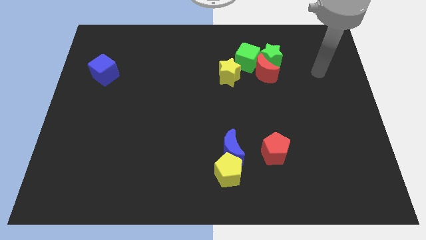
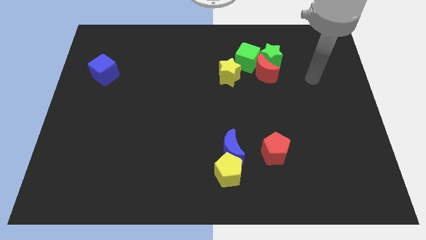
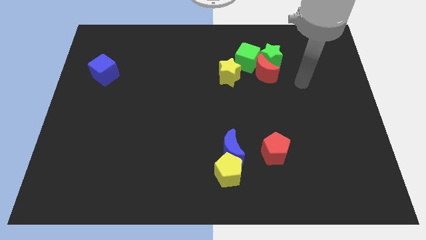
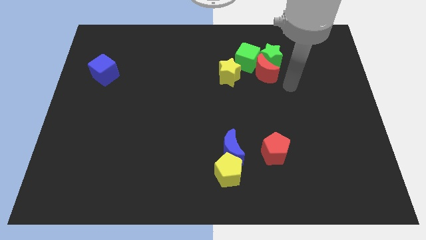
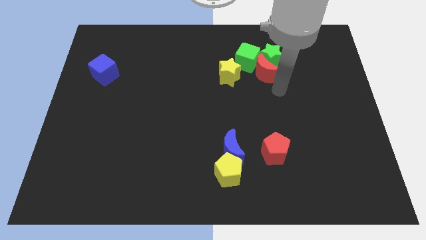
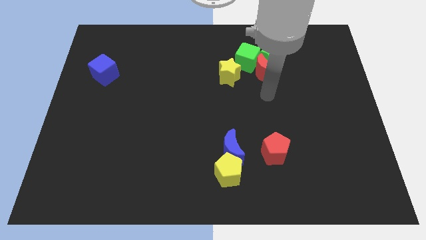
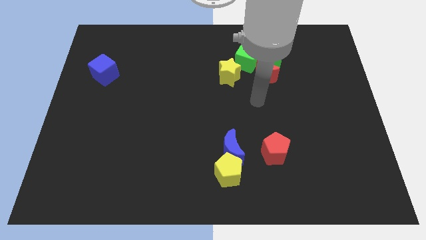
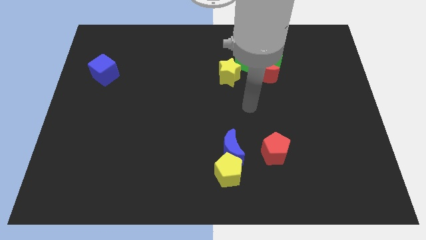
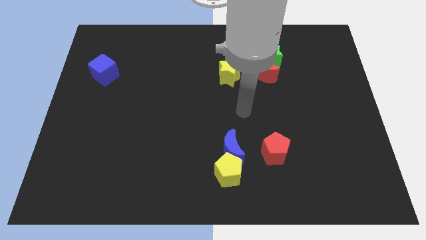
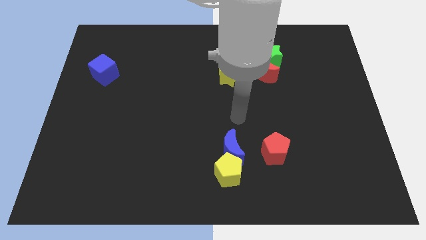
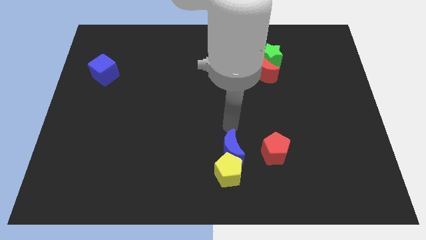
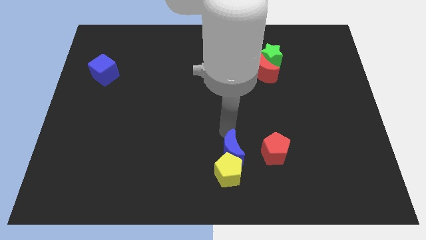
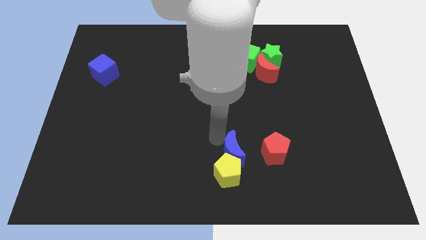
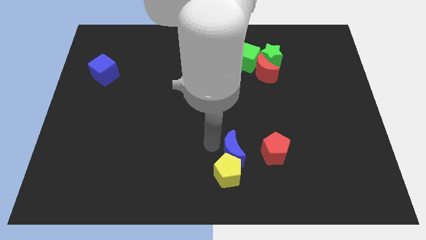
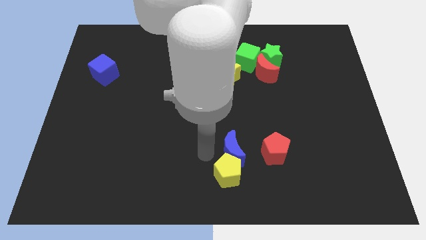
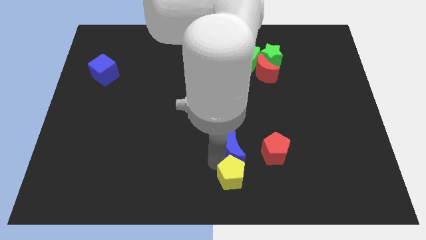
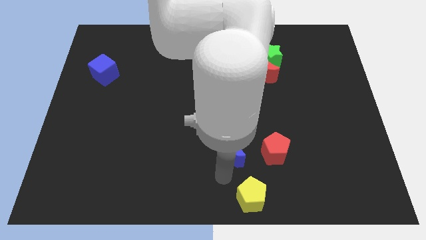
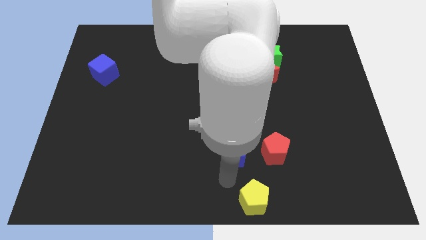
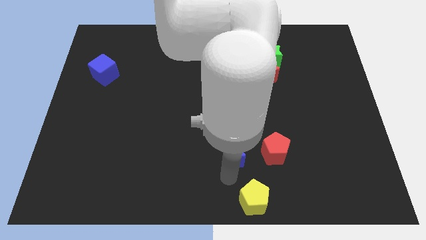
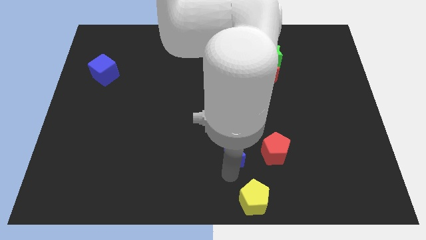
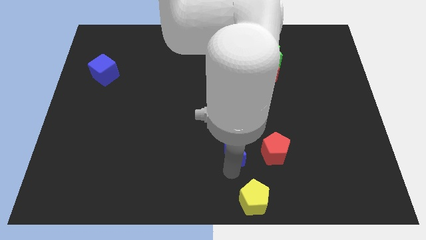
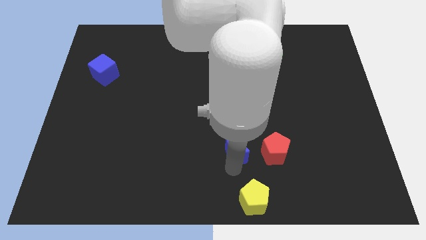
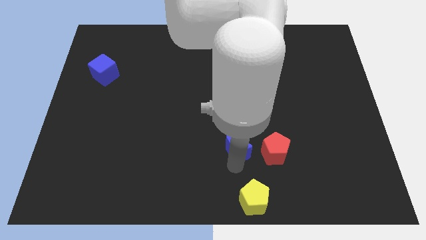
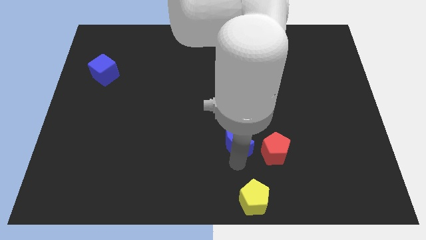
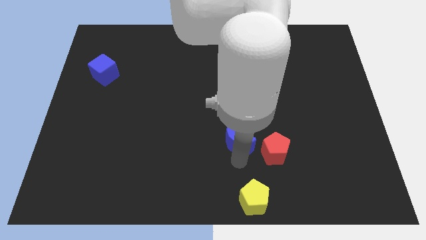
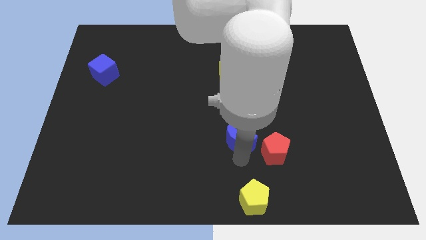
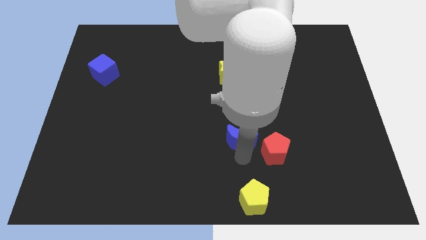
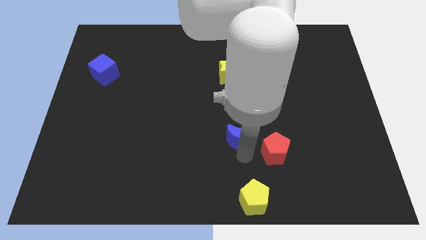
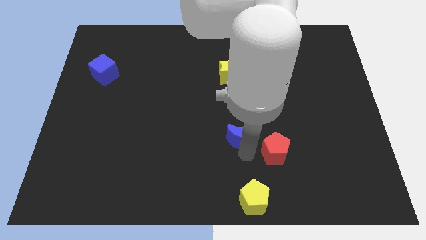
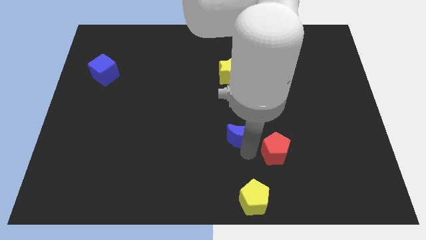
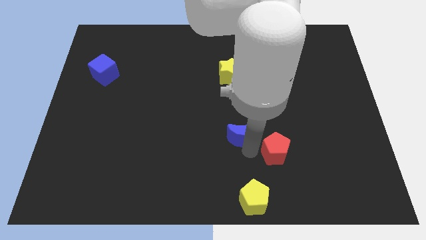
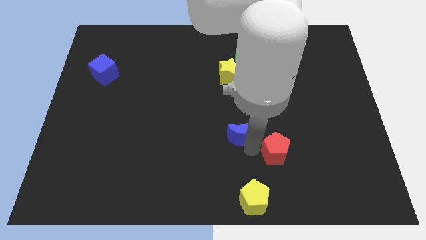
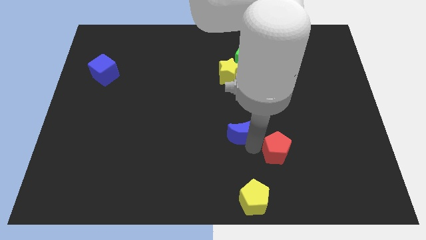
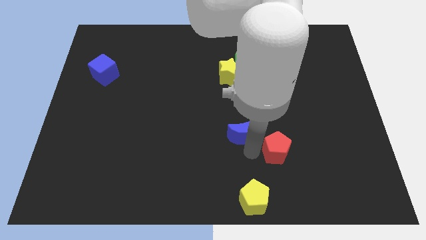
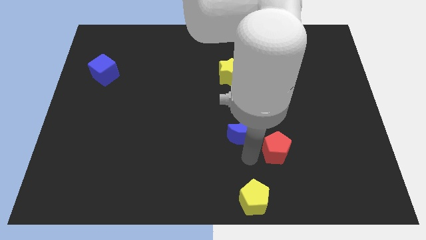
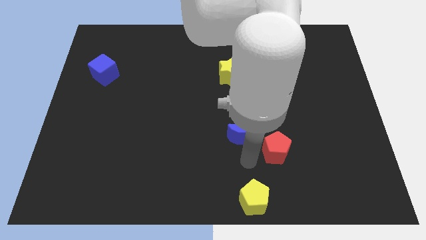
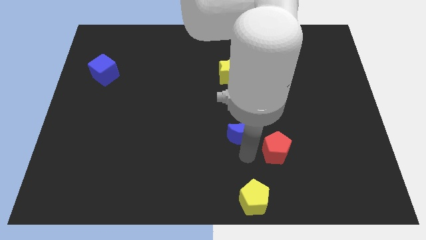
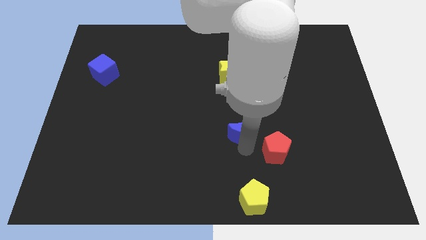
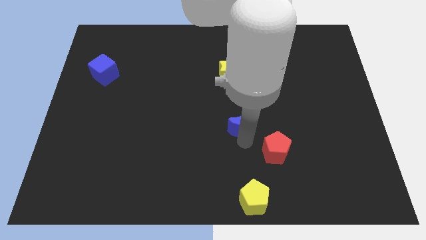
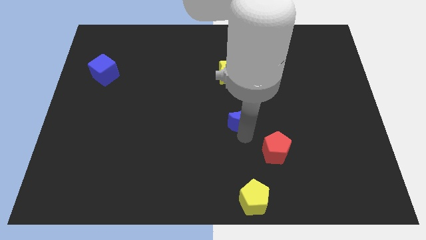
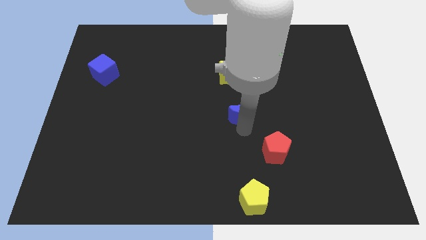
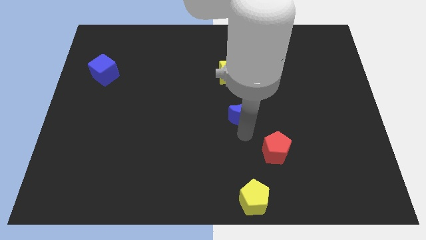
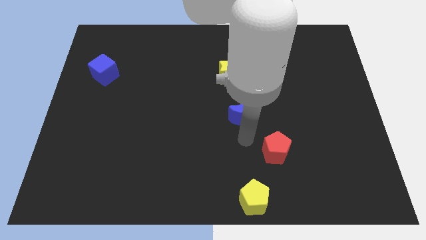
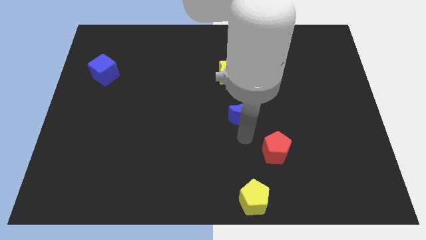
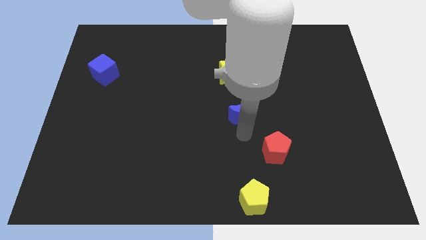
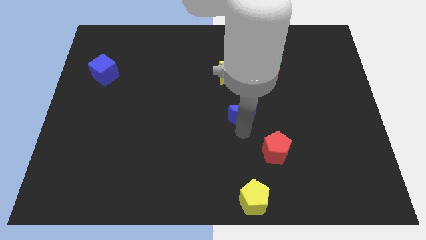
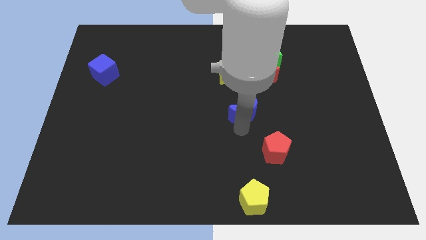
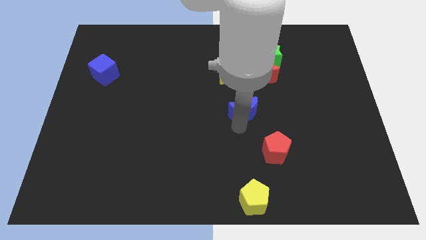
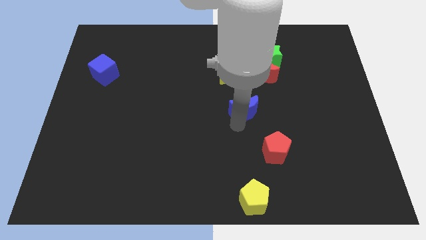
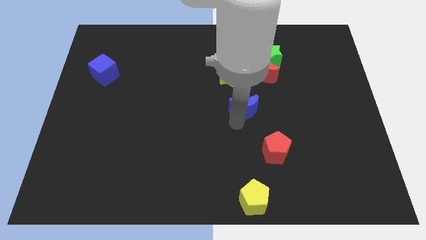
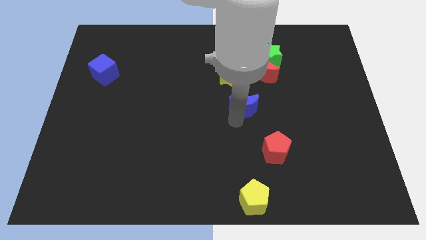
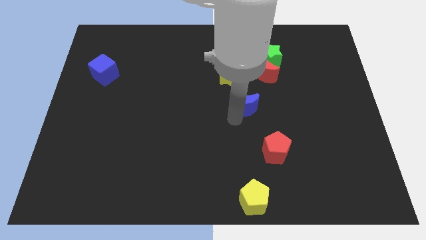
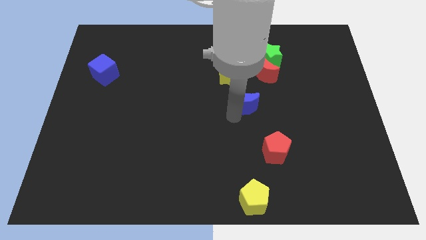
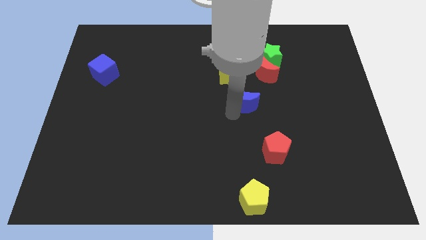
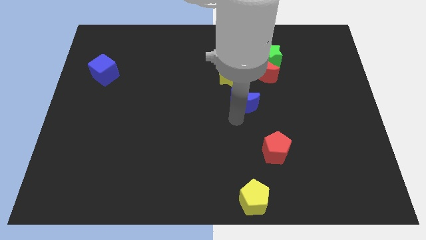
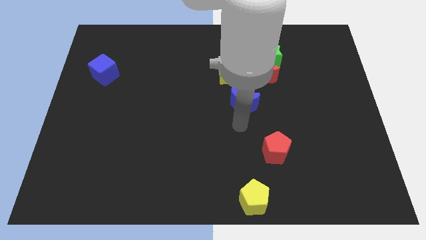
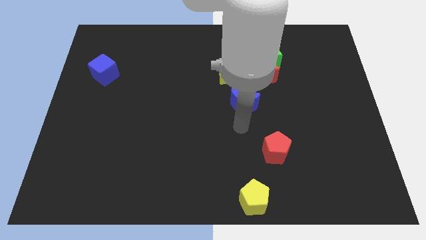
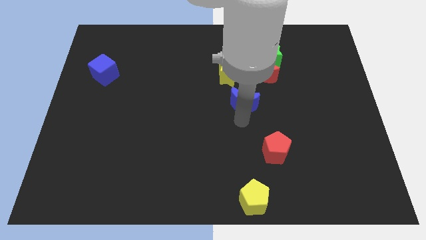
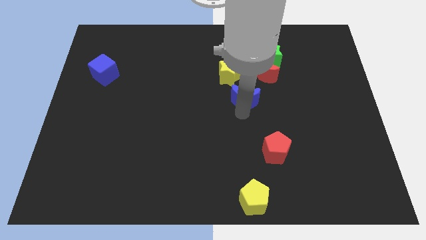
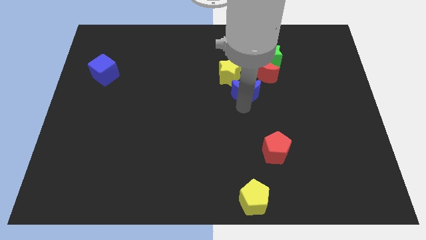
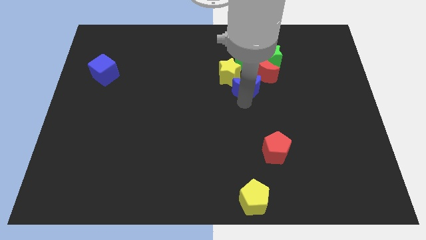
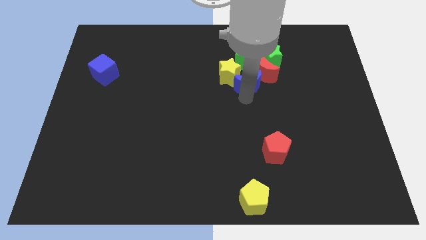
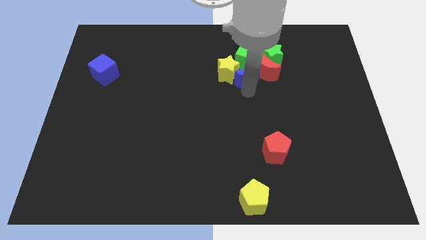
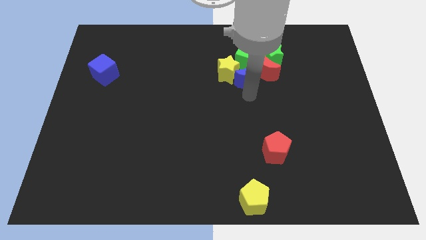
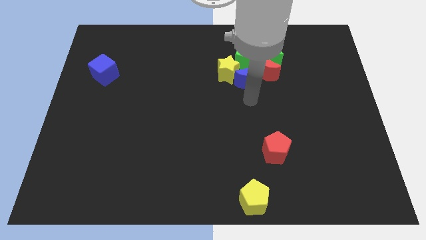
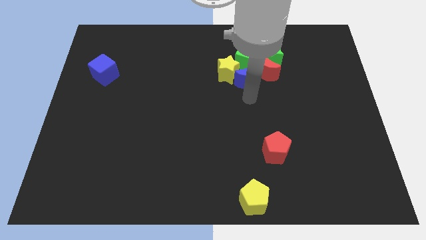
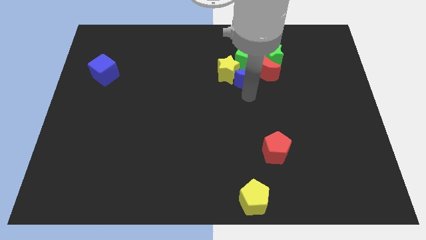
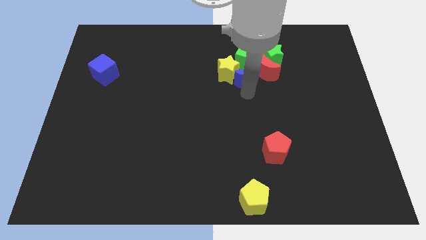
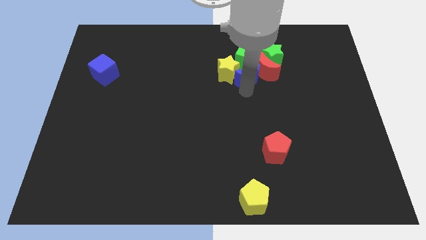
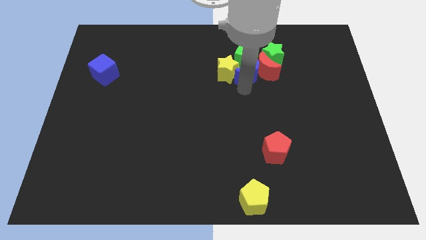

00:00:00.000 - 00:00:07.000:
push the blue moon close to the green cube

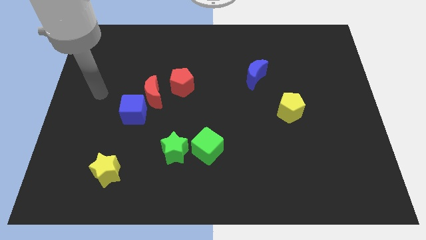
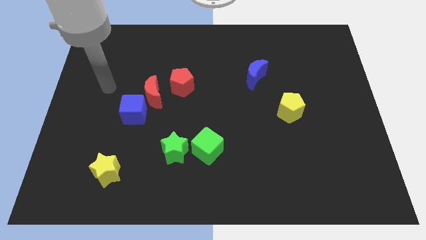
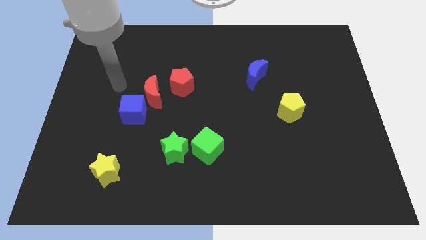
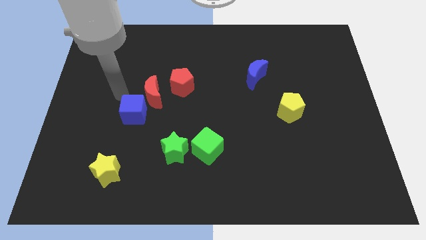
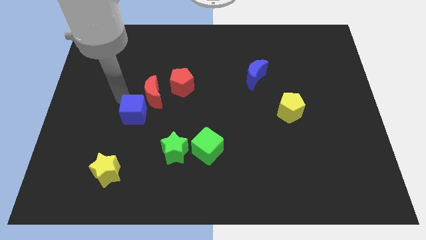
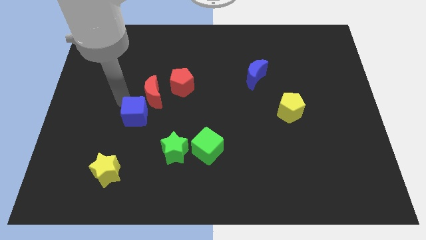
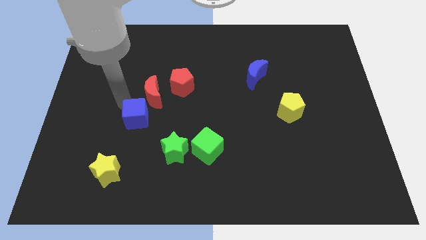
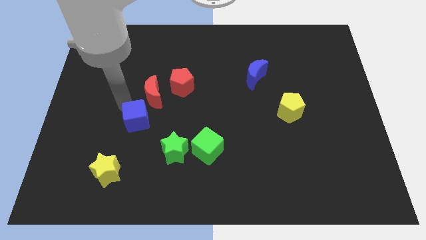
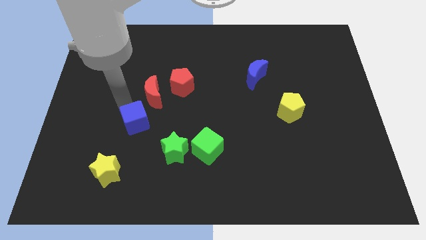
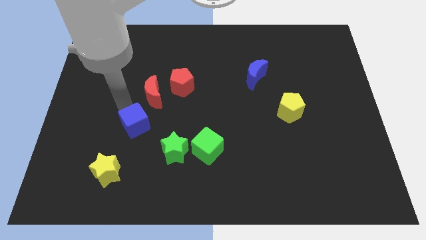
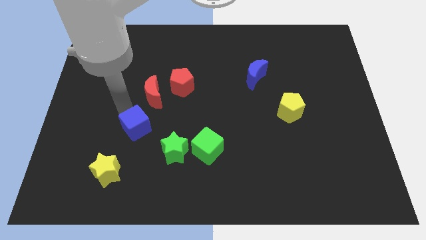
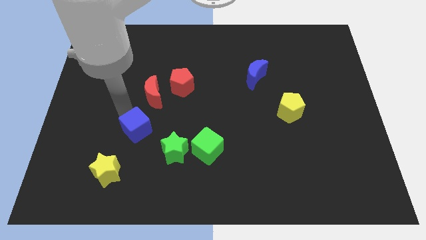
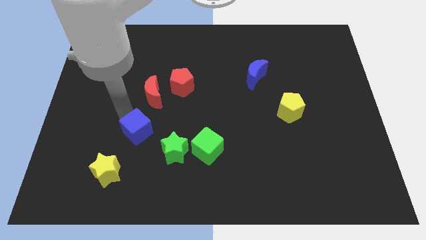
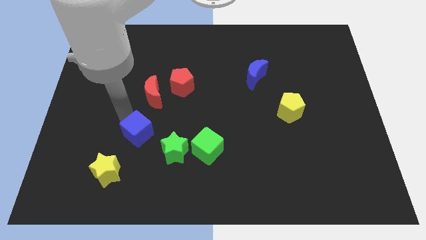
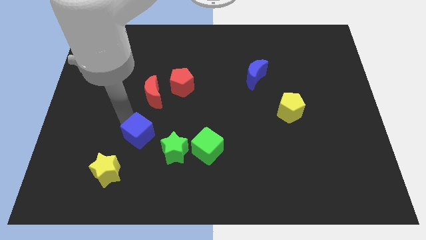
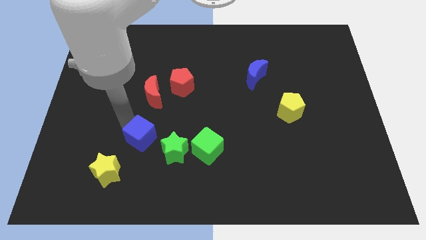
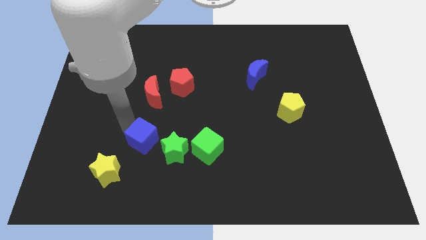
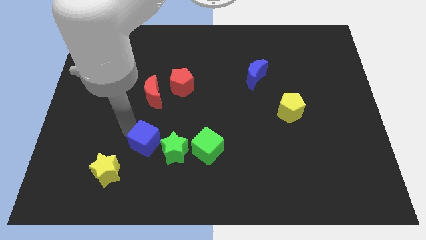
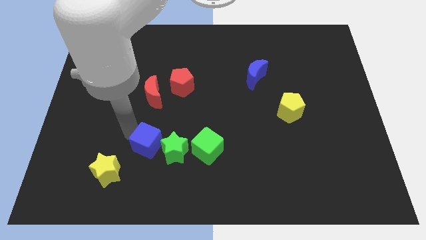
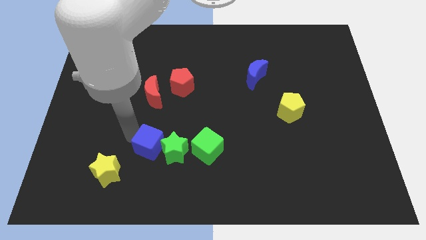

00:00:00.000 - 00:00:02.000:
slide the blue cube towards the green star
